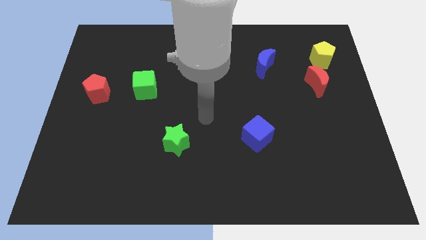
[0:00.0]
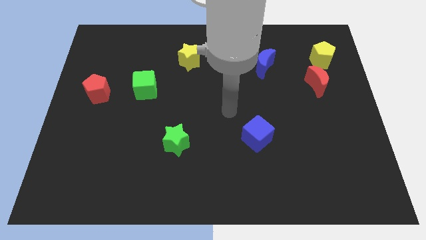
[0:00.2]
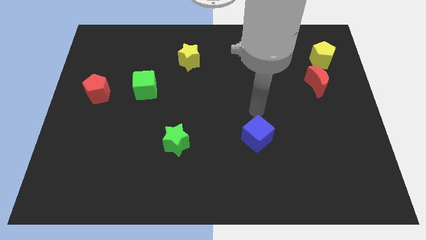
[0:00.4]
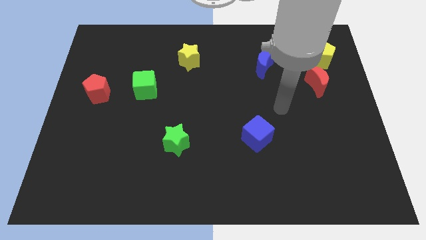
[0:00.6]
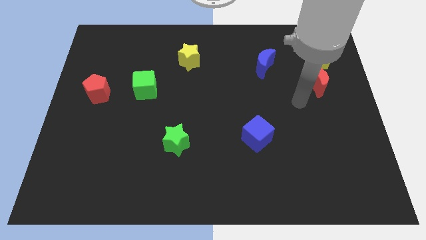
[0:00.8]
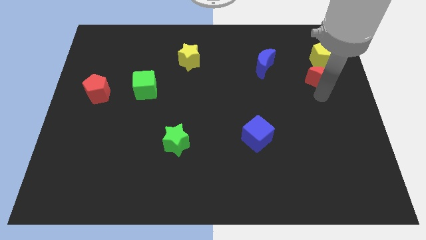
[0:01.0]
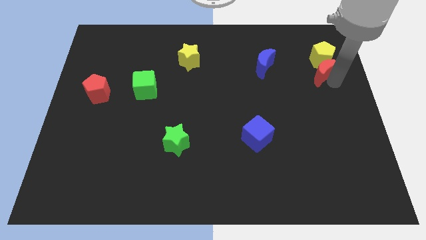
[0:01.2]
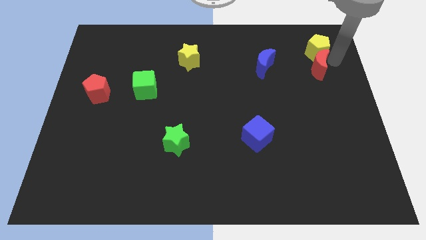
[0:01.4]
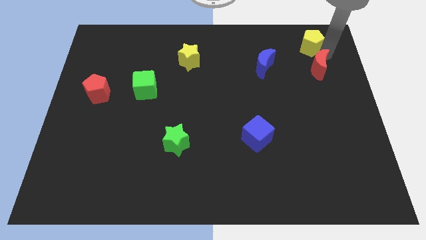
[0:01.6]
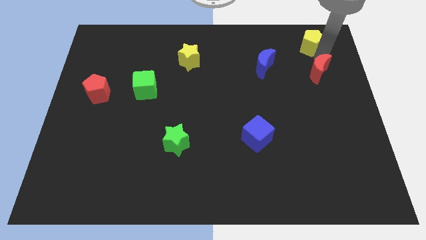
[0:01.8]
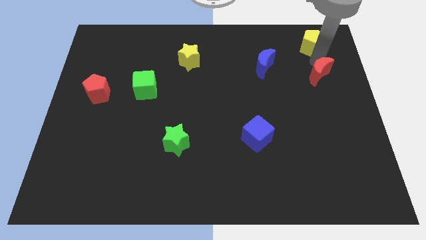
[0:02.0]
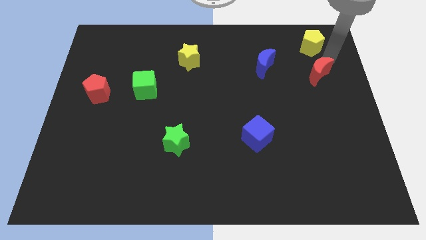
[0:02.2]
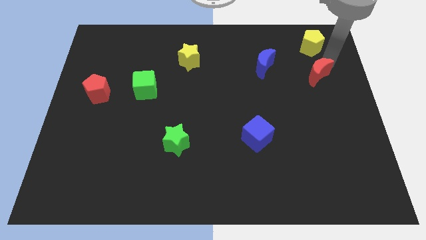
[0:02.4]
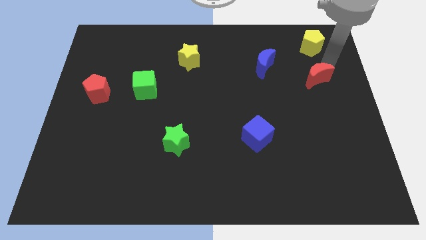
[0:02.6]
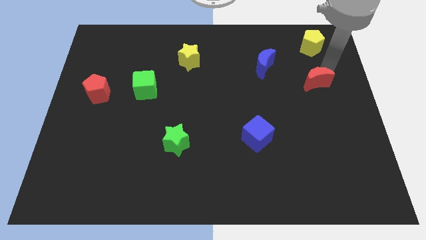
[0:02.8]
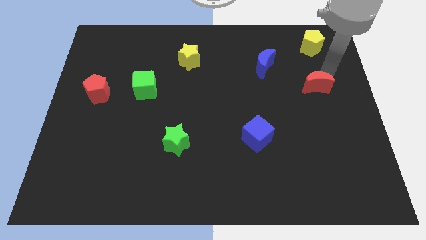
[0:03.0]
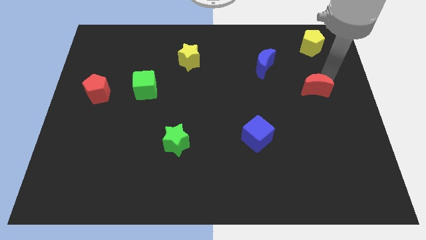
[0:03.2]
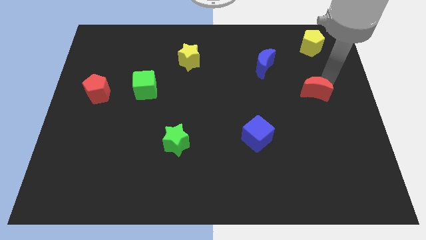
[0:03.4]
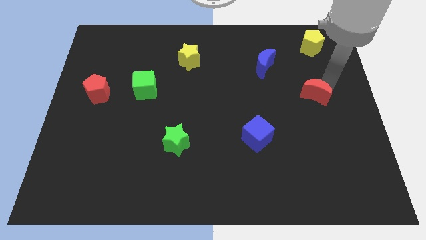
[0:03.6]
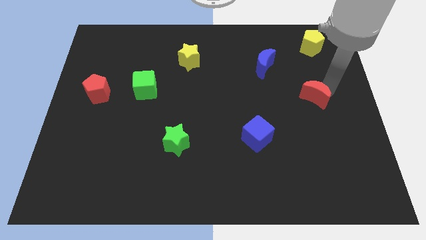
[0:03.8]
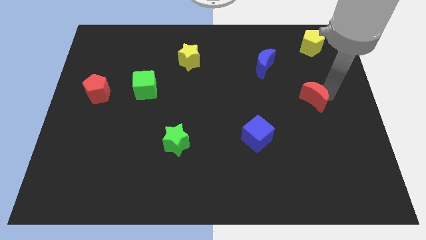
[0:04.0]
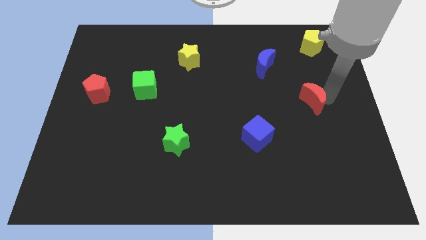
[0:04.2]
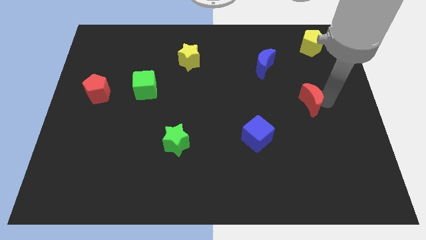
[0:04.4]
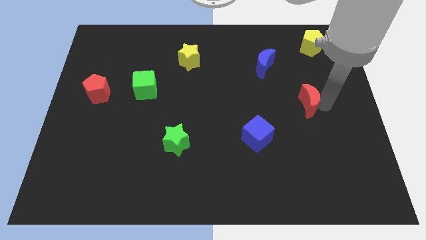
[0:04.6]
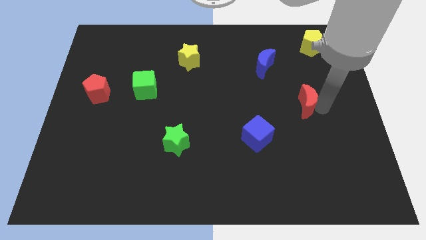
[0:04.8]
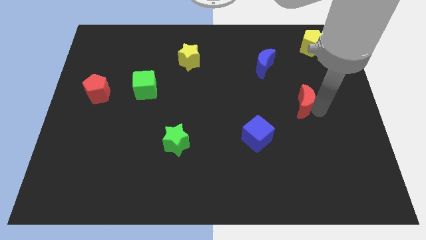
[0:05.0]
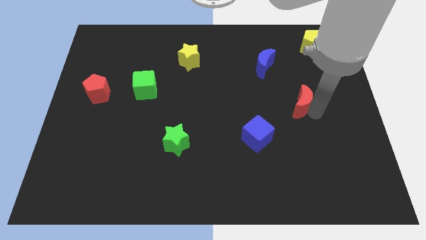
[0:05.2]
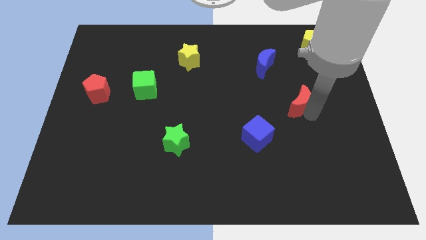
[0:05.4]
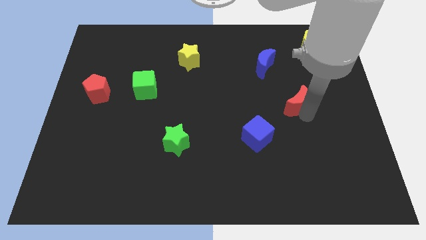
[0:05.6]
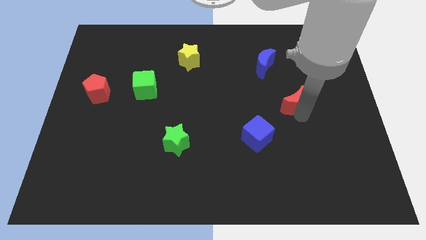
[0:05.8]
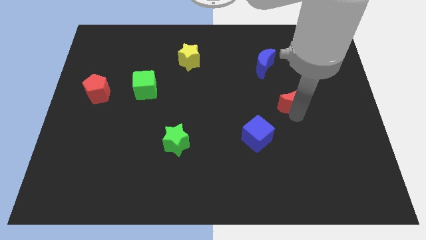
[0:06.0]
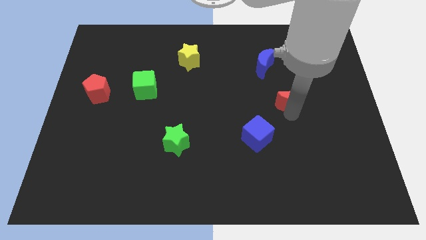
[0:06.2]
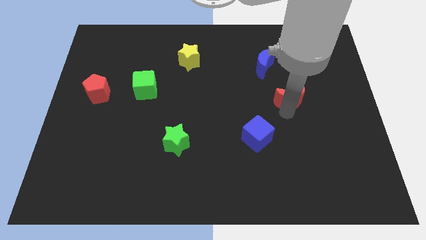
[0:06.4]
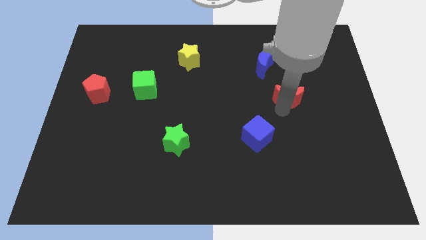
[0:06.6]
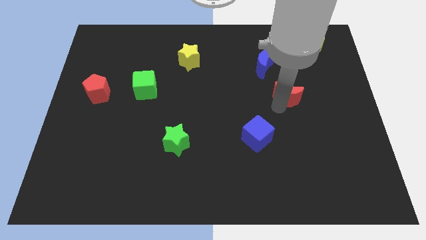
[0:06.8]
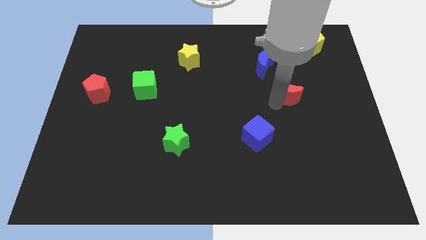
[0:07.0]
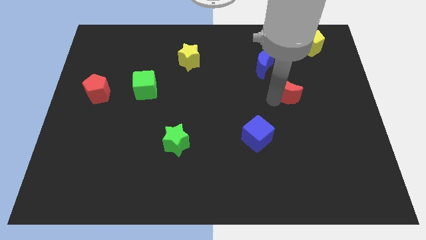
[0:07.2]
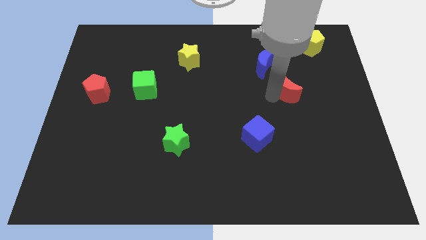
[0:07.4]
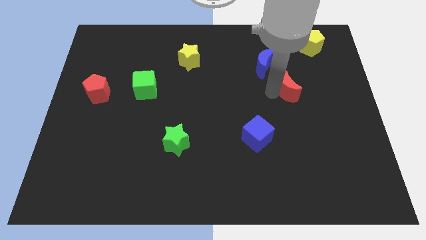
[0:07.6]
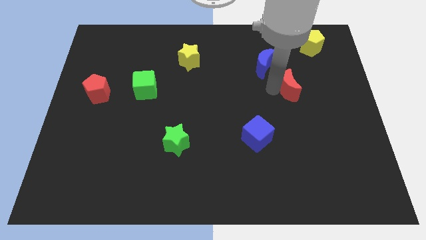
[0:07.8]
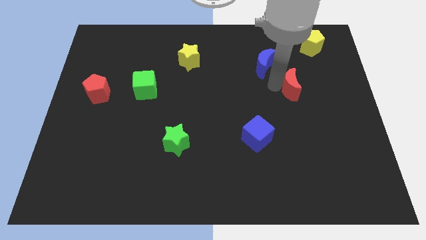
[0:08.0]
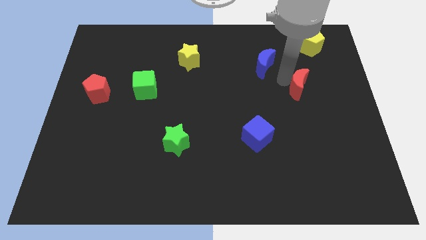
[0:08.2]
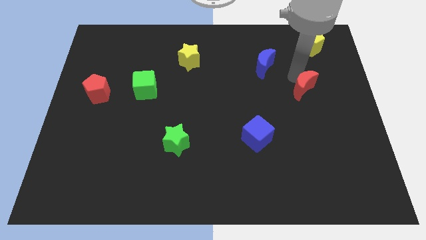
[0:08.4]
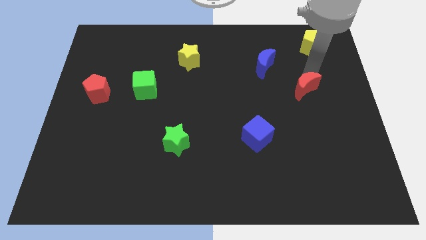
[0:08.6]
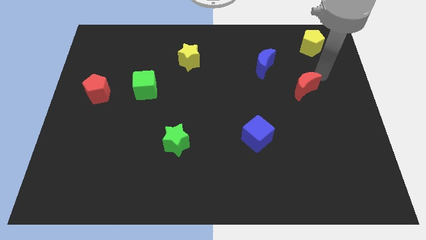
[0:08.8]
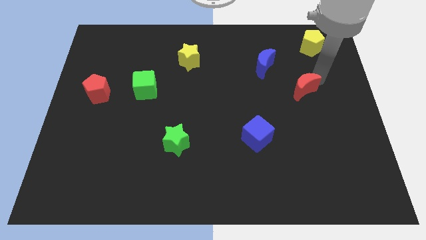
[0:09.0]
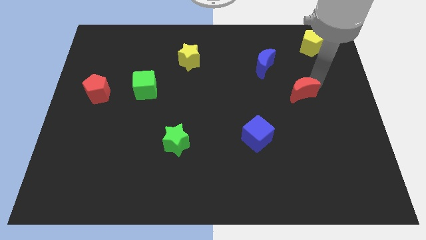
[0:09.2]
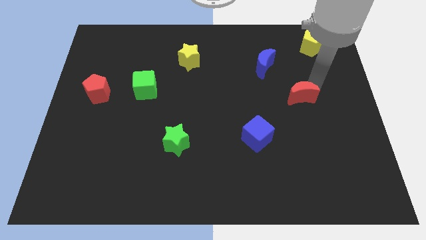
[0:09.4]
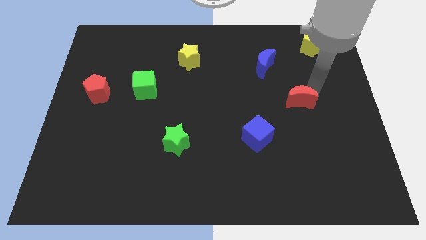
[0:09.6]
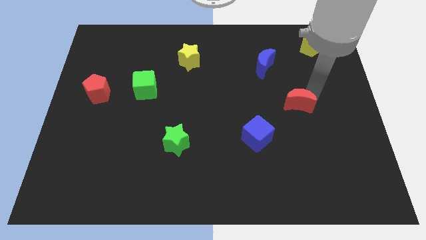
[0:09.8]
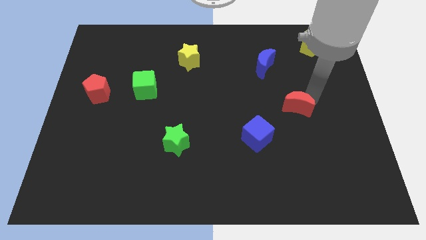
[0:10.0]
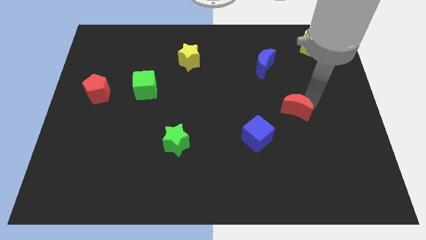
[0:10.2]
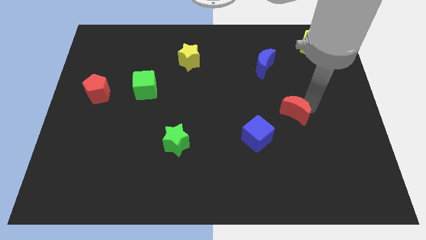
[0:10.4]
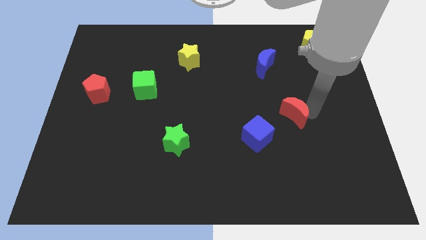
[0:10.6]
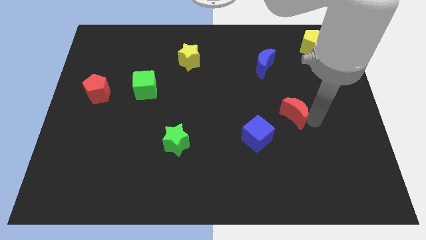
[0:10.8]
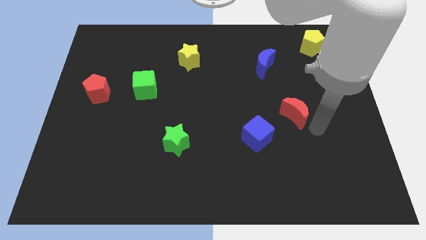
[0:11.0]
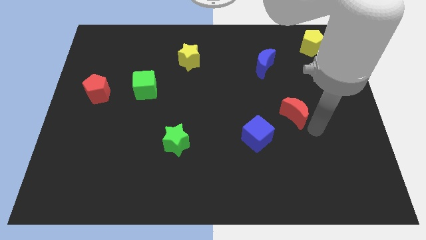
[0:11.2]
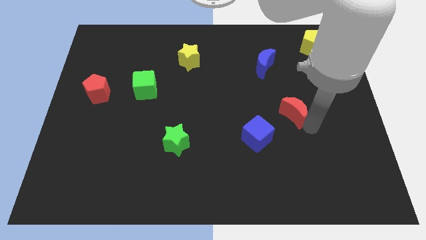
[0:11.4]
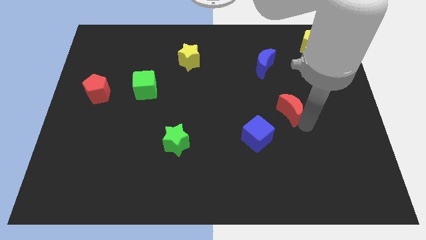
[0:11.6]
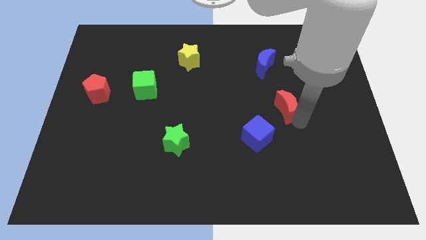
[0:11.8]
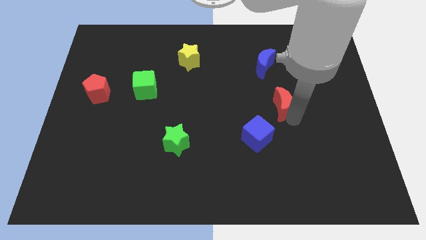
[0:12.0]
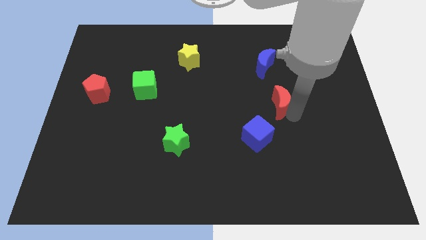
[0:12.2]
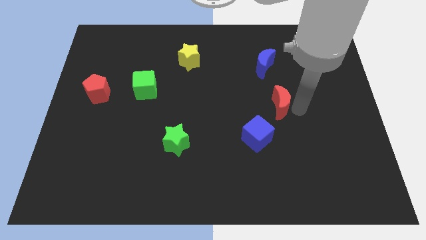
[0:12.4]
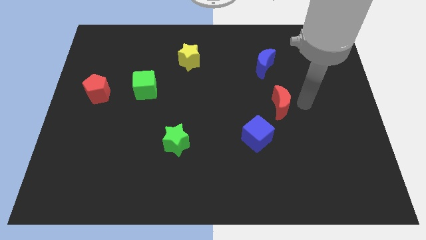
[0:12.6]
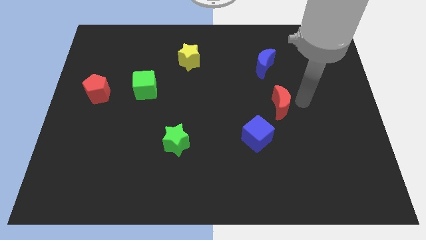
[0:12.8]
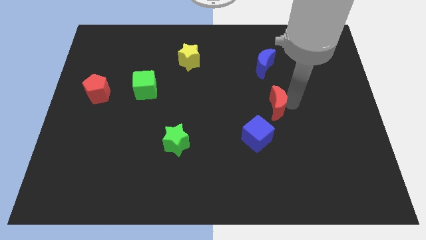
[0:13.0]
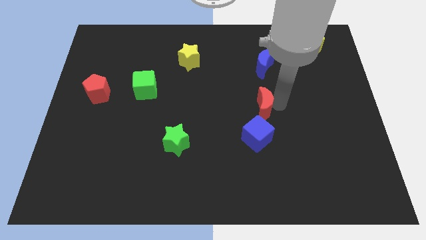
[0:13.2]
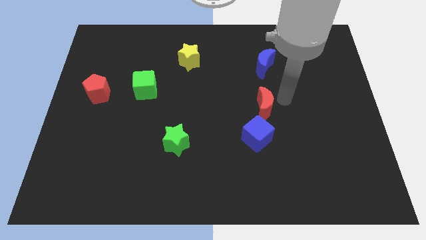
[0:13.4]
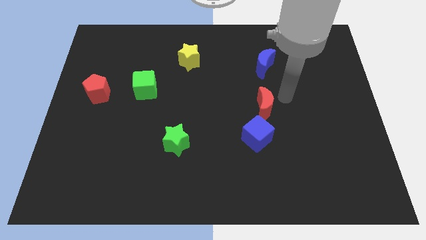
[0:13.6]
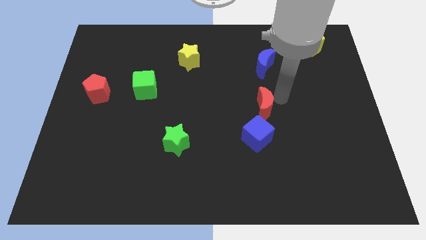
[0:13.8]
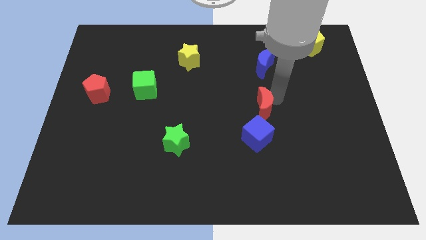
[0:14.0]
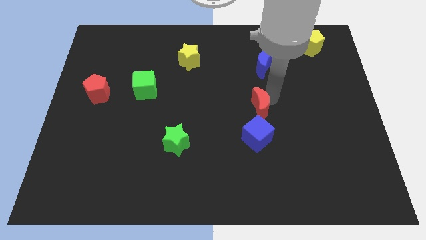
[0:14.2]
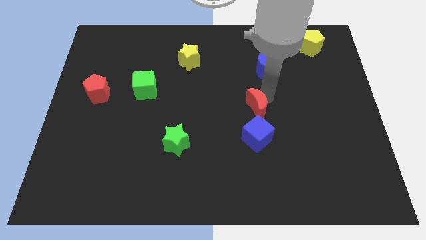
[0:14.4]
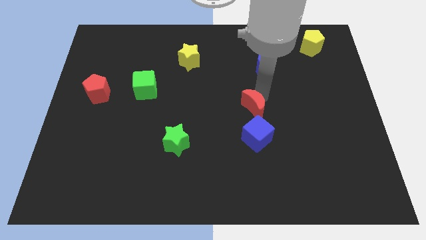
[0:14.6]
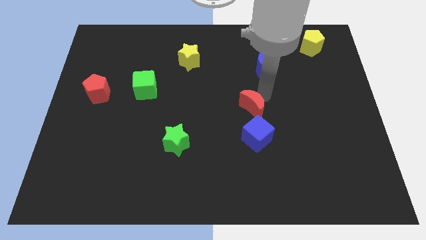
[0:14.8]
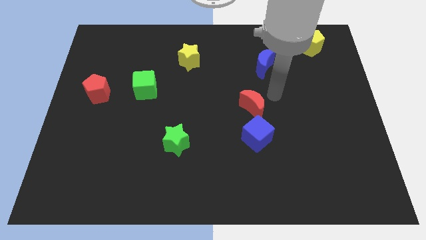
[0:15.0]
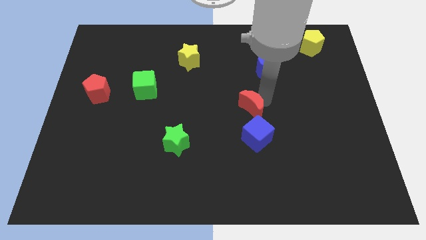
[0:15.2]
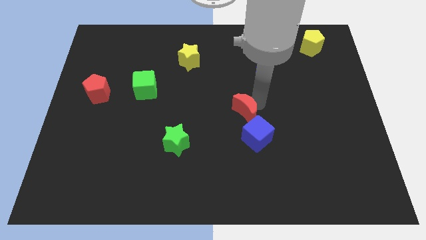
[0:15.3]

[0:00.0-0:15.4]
slide the red moon to the top left of the blue cube

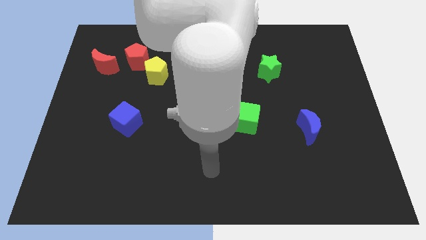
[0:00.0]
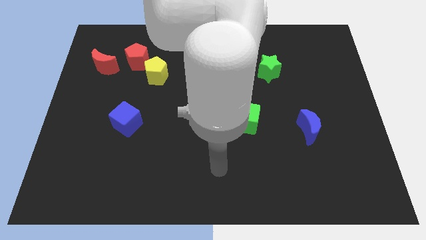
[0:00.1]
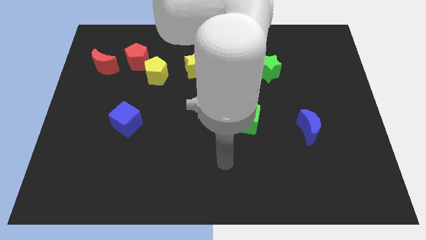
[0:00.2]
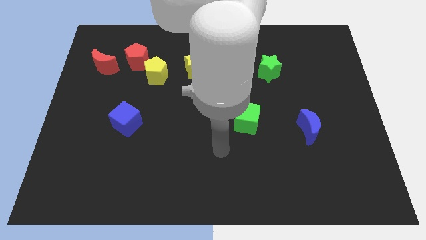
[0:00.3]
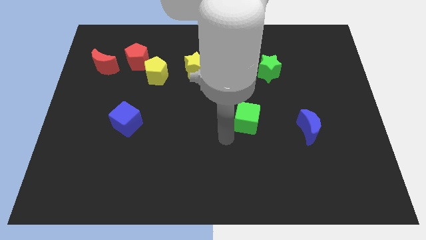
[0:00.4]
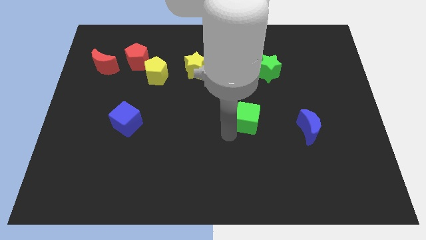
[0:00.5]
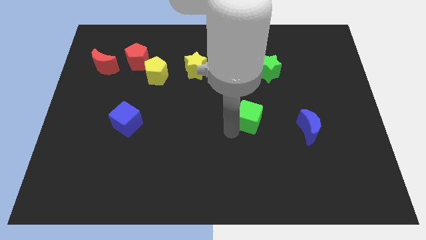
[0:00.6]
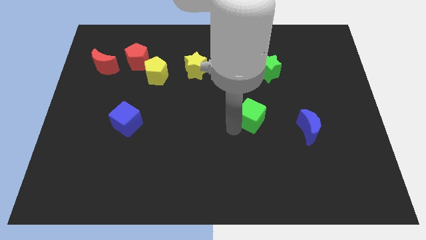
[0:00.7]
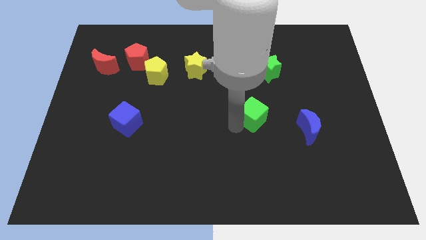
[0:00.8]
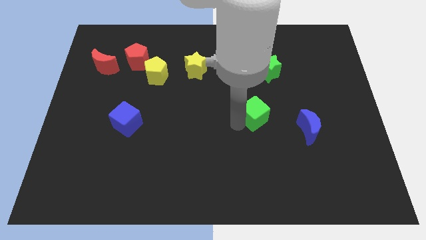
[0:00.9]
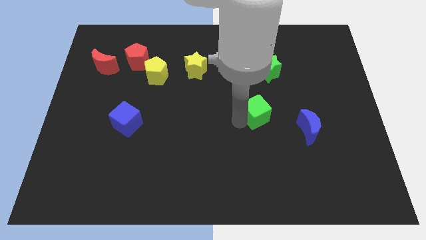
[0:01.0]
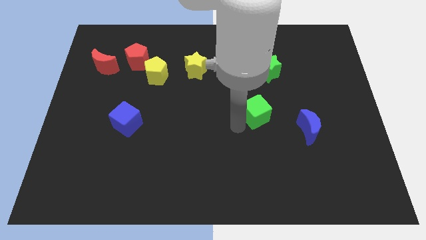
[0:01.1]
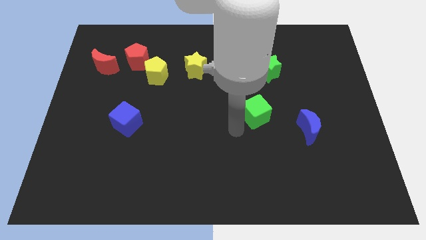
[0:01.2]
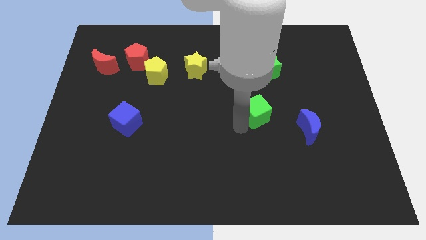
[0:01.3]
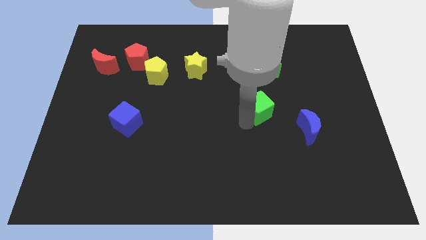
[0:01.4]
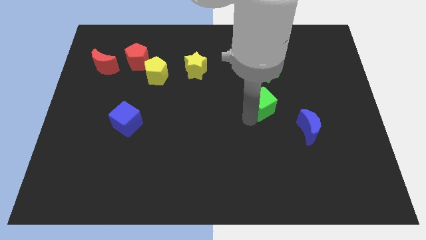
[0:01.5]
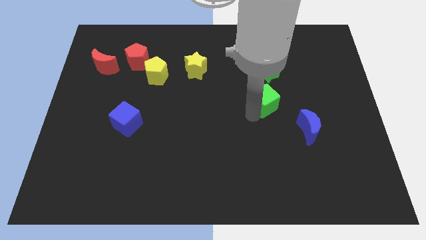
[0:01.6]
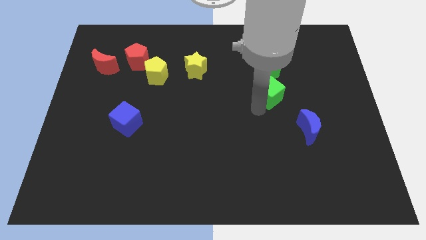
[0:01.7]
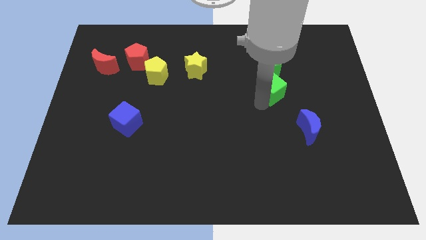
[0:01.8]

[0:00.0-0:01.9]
move the green cube to the bottom right of the green star
